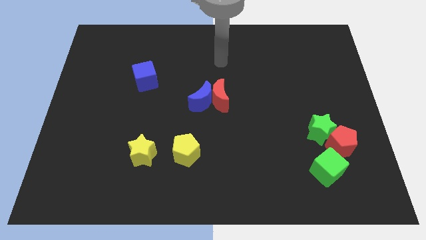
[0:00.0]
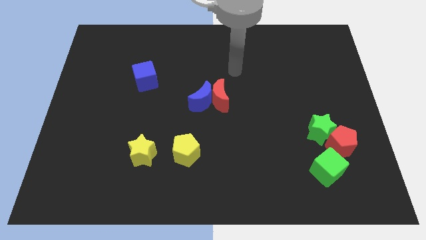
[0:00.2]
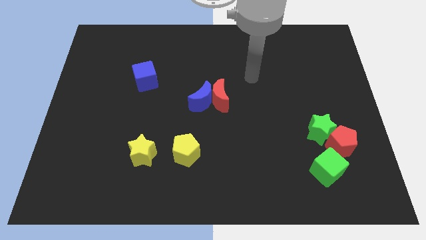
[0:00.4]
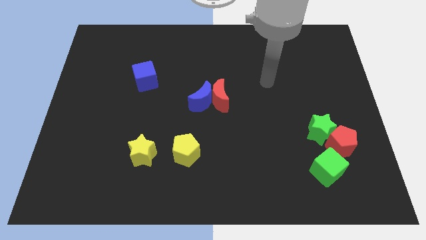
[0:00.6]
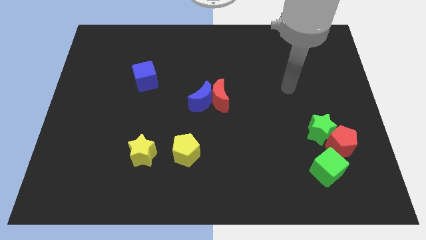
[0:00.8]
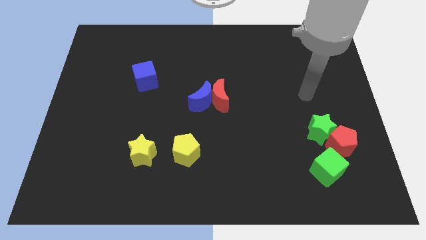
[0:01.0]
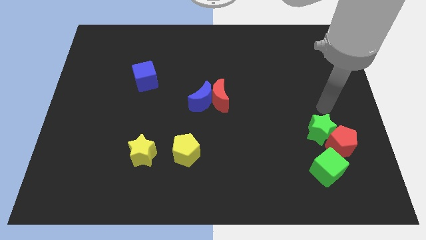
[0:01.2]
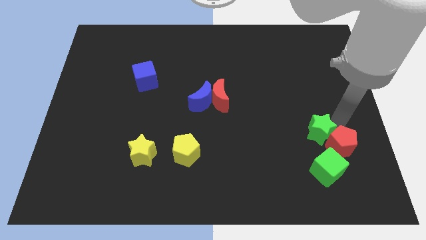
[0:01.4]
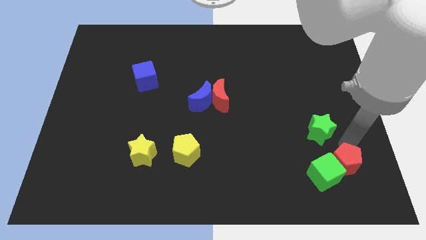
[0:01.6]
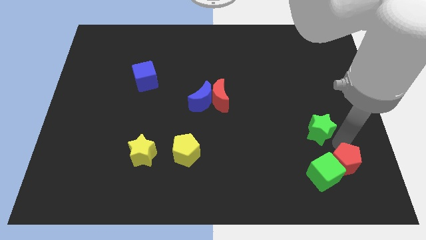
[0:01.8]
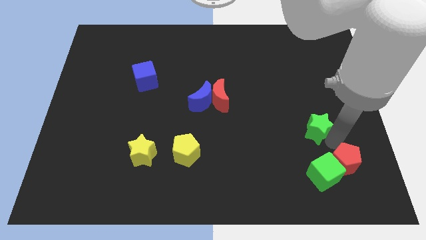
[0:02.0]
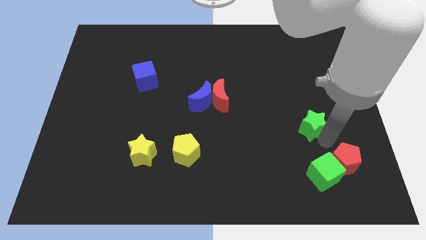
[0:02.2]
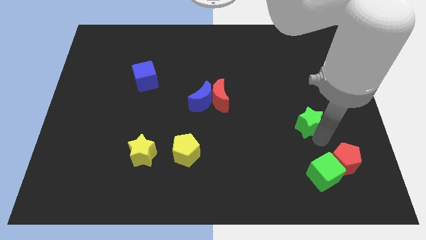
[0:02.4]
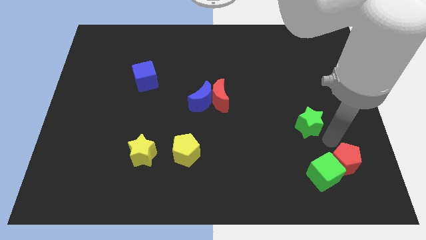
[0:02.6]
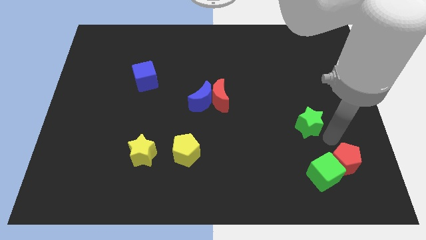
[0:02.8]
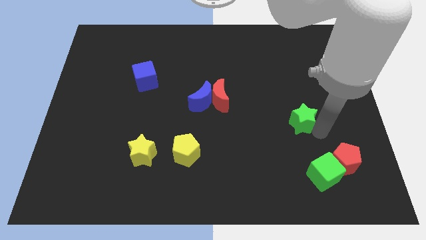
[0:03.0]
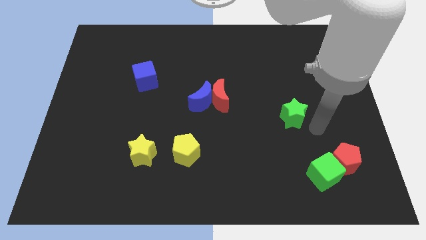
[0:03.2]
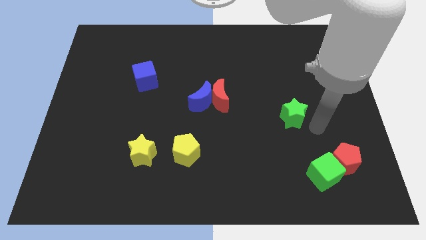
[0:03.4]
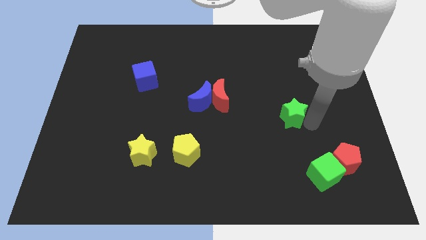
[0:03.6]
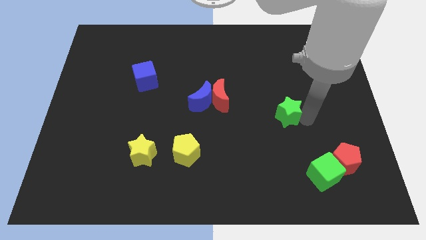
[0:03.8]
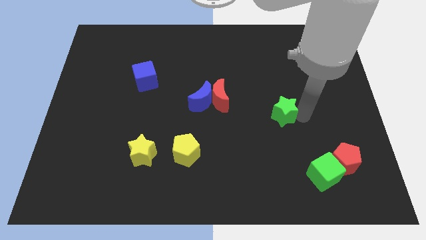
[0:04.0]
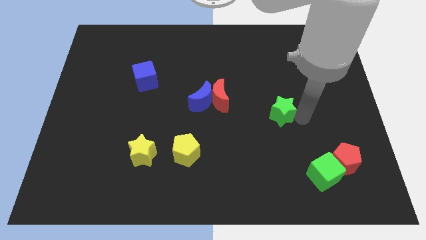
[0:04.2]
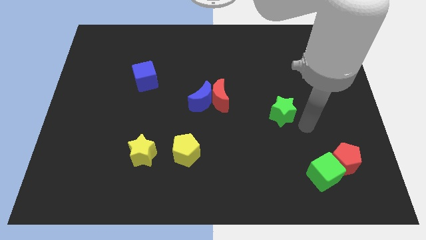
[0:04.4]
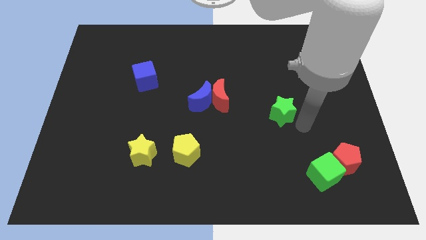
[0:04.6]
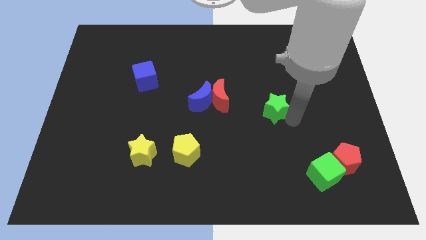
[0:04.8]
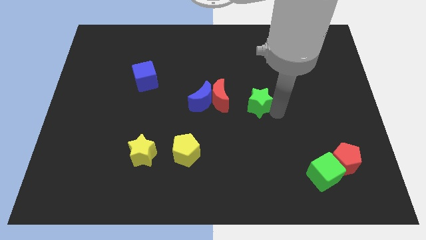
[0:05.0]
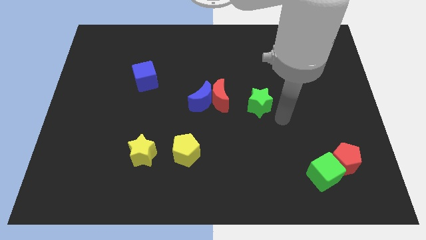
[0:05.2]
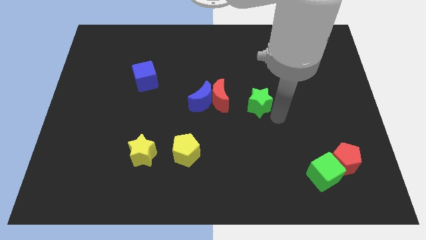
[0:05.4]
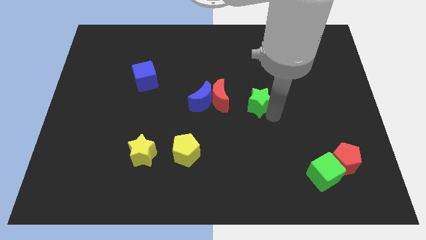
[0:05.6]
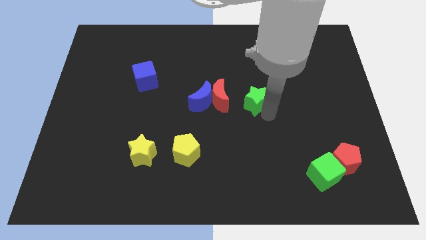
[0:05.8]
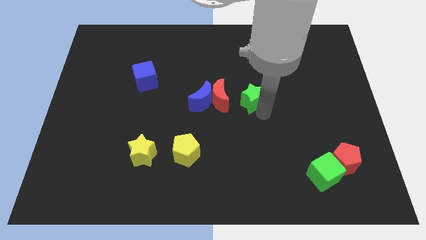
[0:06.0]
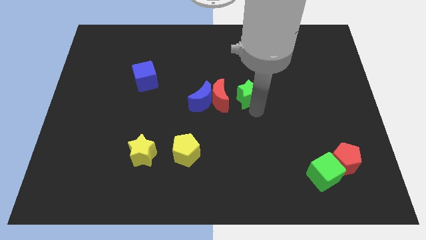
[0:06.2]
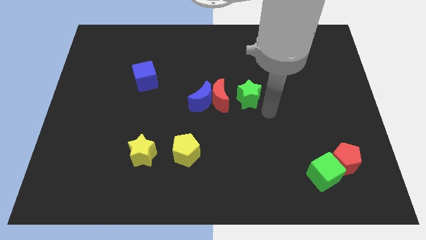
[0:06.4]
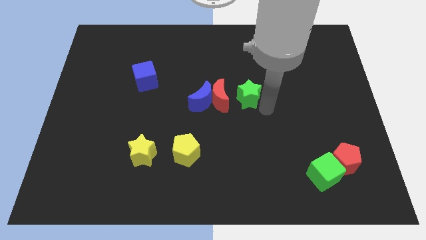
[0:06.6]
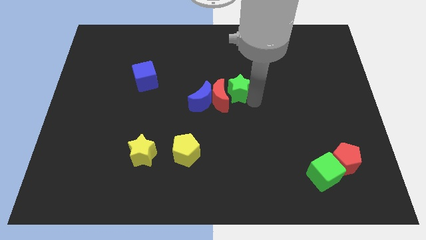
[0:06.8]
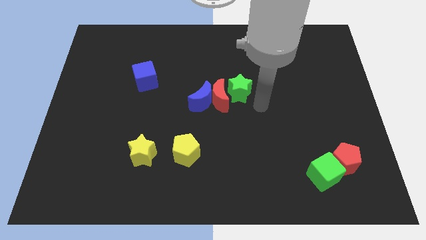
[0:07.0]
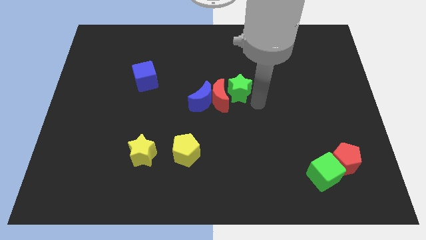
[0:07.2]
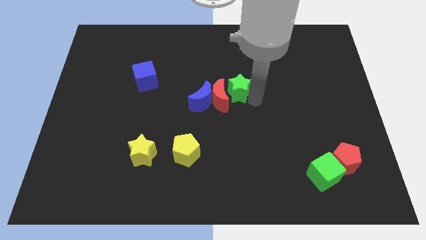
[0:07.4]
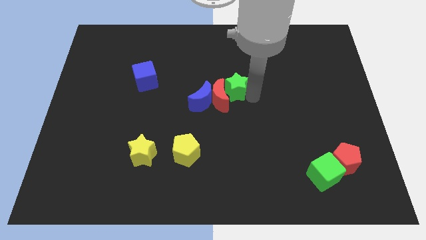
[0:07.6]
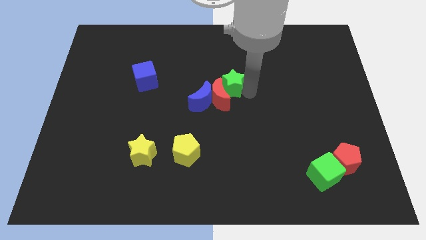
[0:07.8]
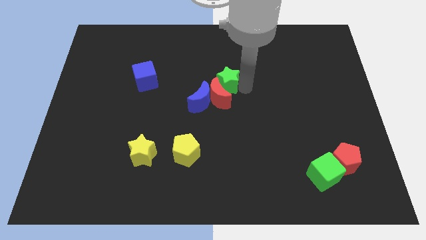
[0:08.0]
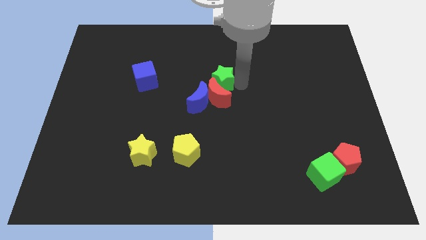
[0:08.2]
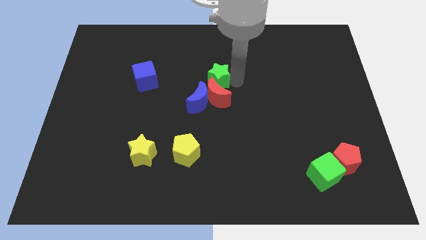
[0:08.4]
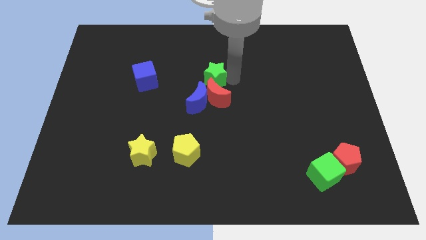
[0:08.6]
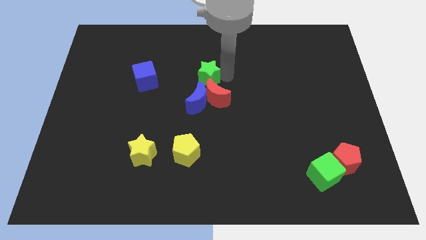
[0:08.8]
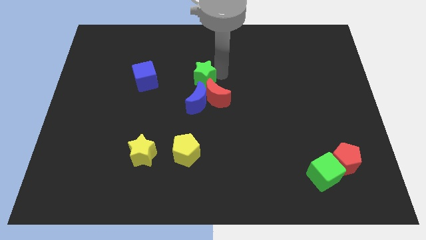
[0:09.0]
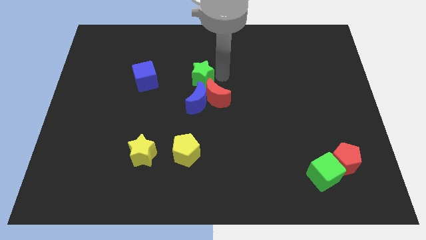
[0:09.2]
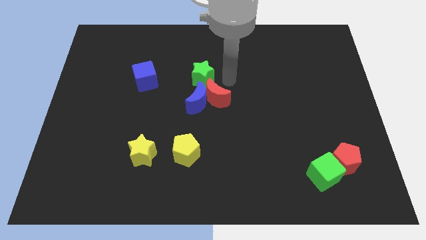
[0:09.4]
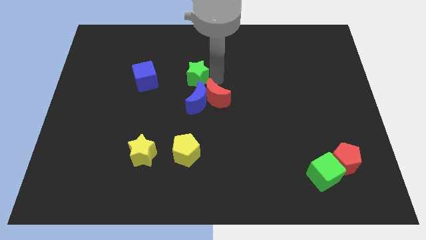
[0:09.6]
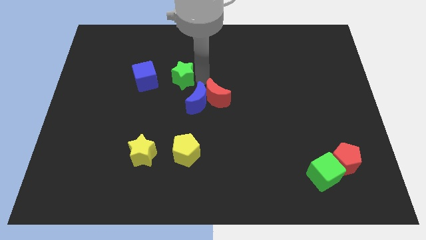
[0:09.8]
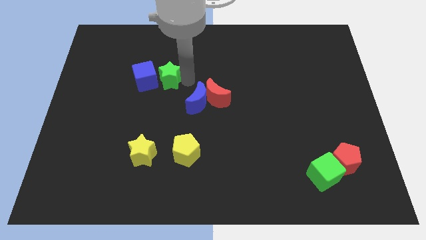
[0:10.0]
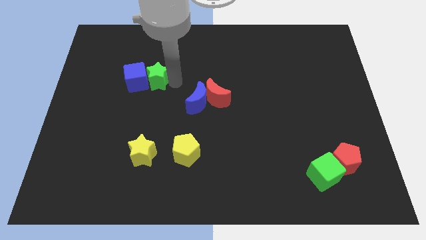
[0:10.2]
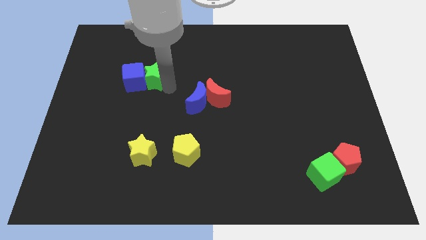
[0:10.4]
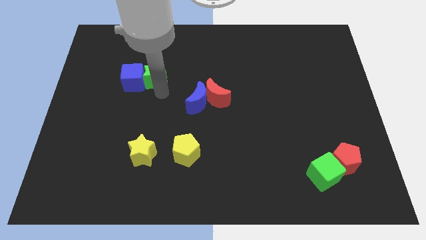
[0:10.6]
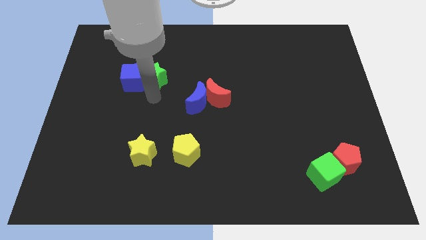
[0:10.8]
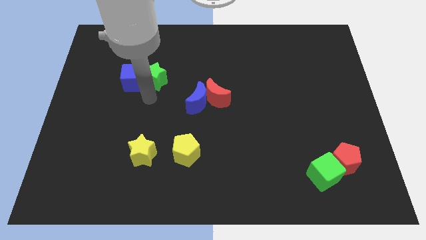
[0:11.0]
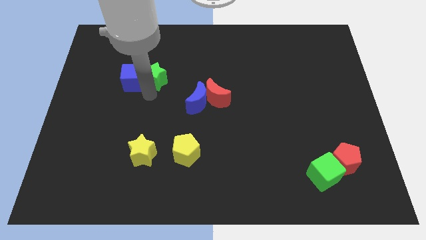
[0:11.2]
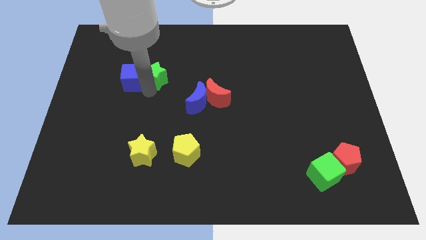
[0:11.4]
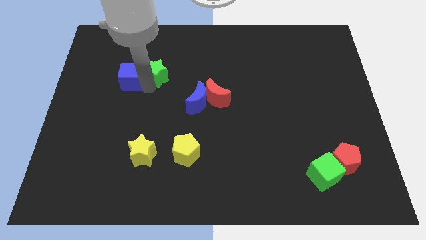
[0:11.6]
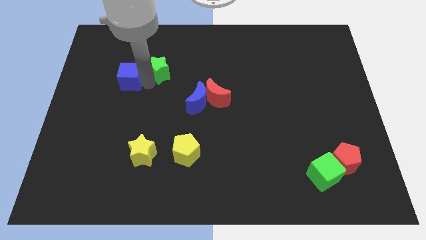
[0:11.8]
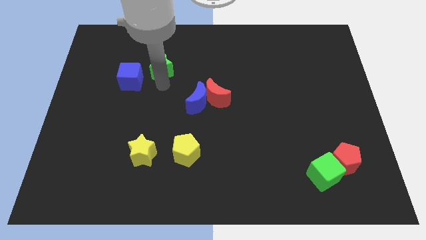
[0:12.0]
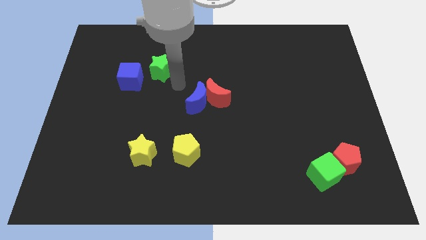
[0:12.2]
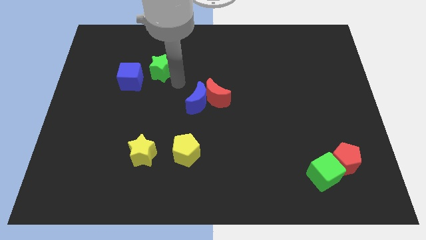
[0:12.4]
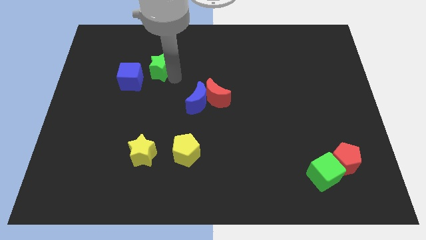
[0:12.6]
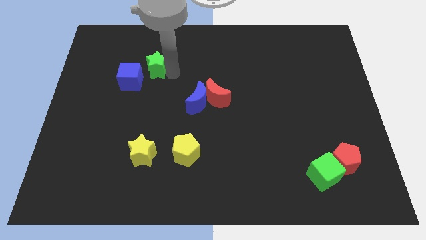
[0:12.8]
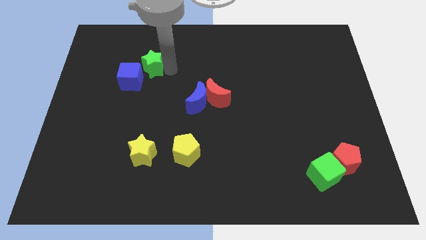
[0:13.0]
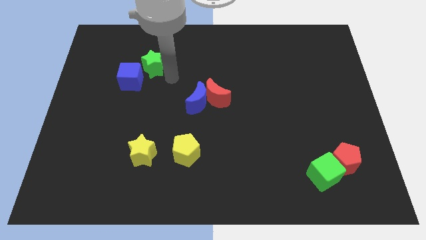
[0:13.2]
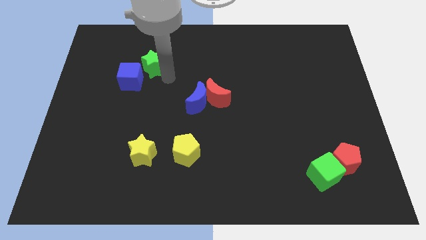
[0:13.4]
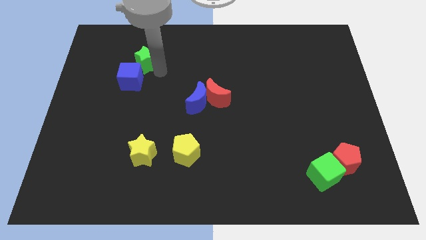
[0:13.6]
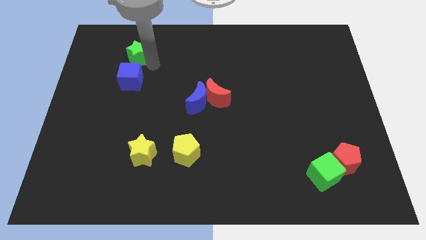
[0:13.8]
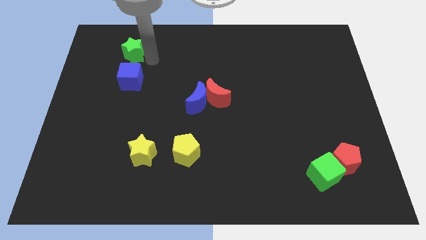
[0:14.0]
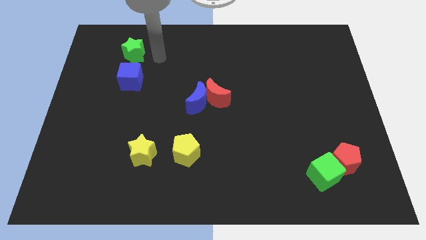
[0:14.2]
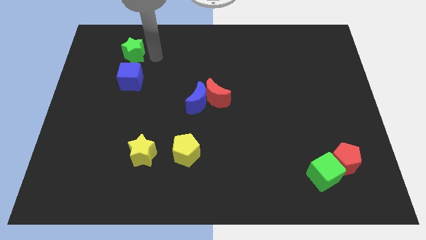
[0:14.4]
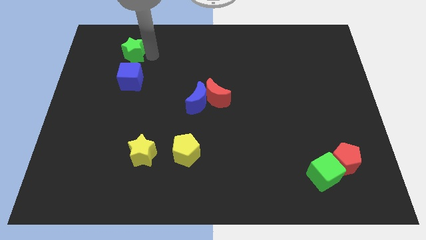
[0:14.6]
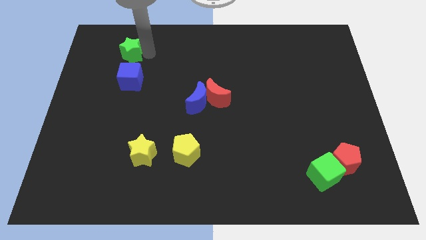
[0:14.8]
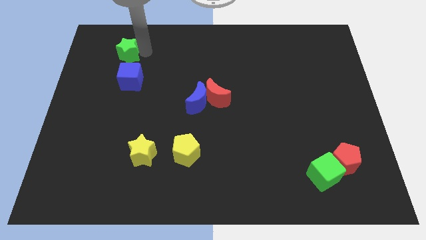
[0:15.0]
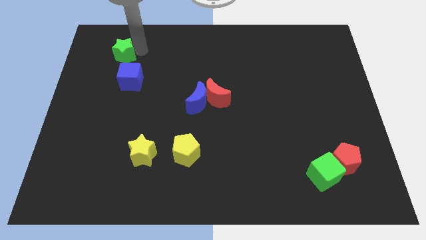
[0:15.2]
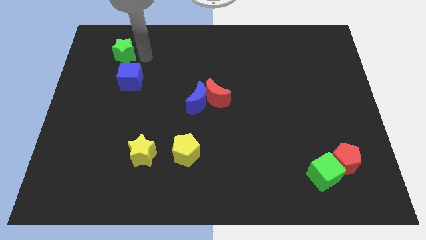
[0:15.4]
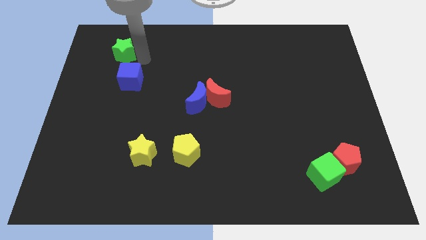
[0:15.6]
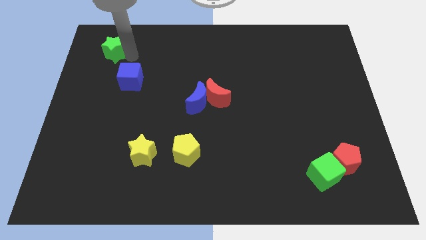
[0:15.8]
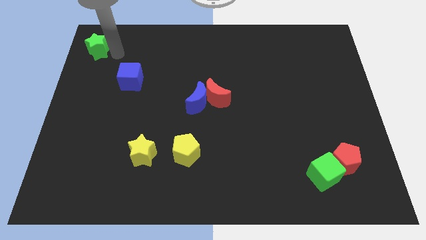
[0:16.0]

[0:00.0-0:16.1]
put the green star to the top left of the board
